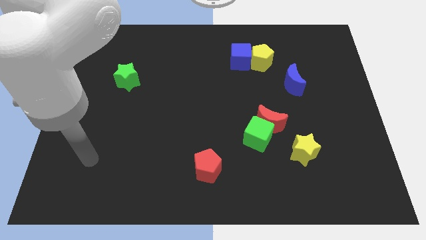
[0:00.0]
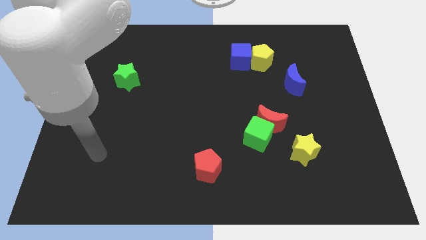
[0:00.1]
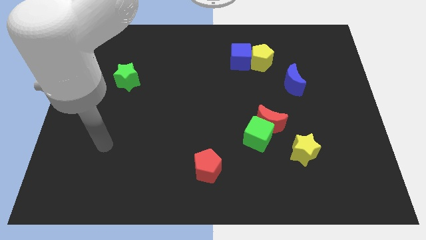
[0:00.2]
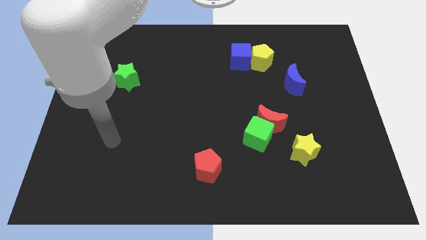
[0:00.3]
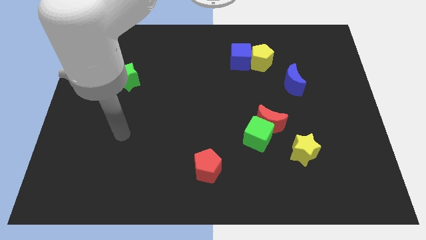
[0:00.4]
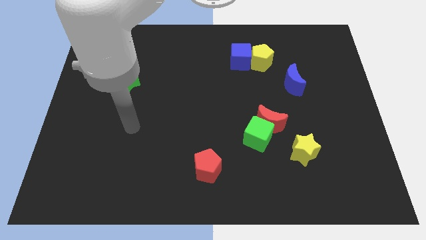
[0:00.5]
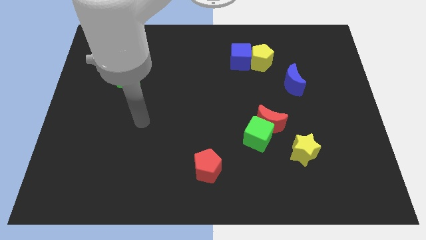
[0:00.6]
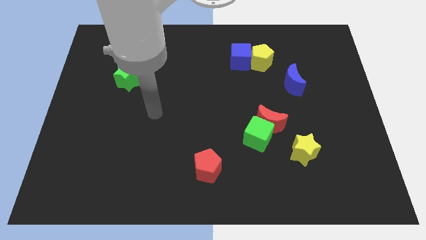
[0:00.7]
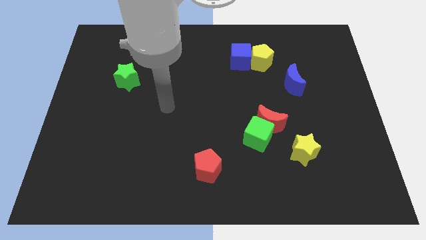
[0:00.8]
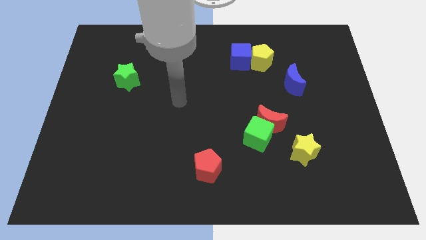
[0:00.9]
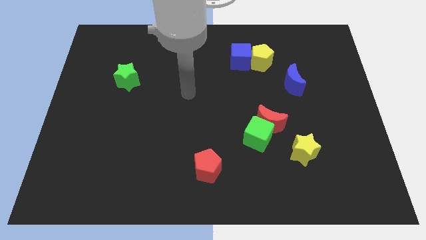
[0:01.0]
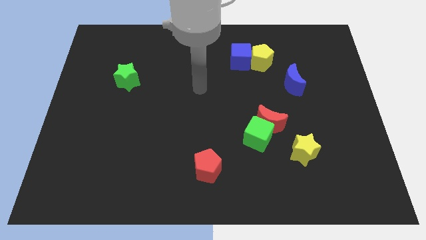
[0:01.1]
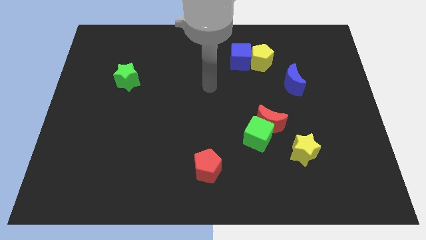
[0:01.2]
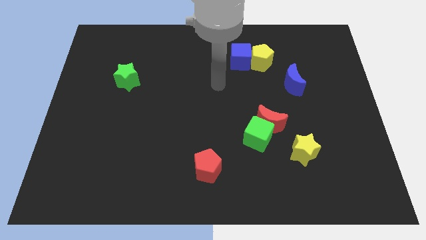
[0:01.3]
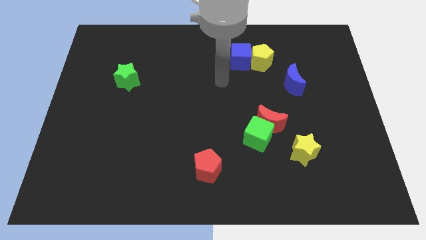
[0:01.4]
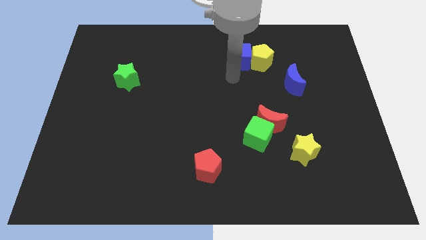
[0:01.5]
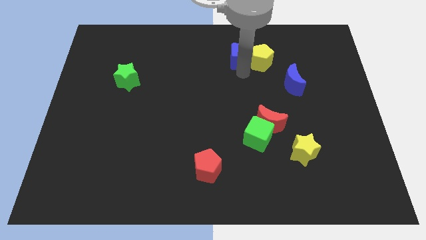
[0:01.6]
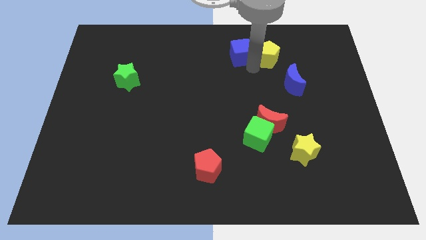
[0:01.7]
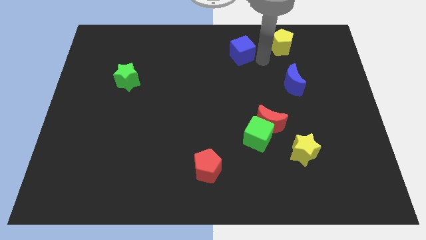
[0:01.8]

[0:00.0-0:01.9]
pull the blue cube apart from the yellow pentagon

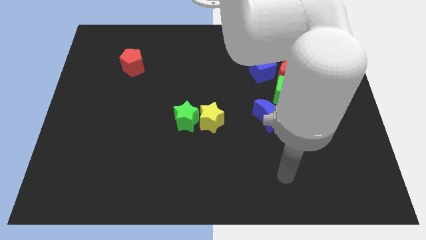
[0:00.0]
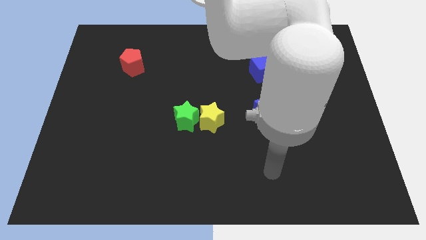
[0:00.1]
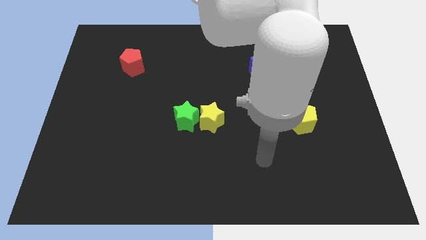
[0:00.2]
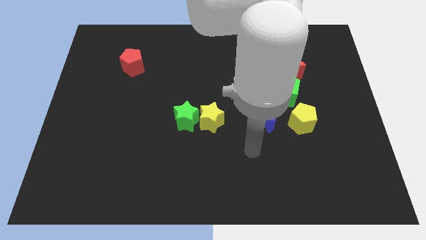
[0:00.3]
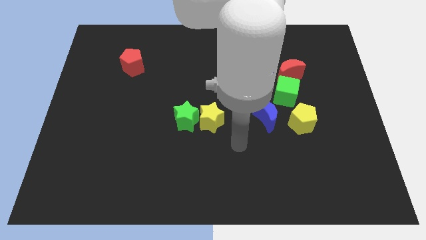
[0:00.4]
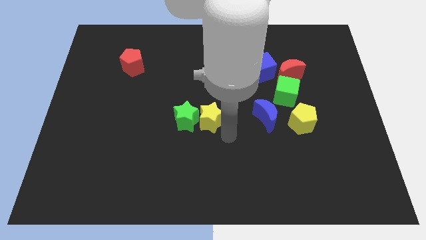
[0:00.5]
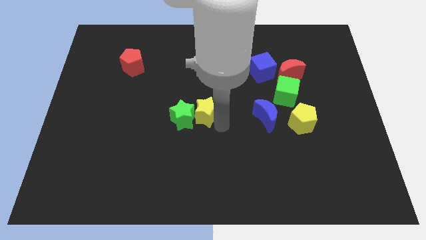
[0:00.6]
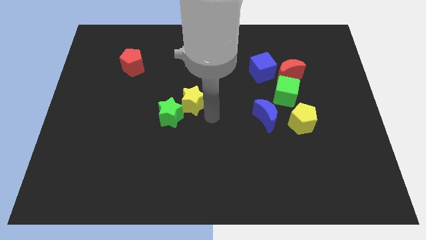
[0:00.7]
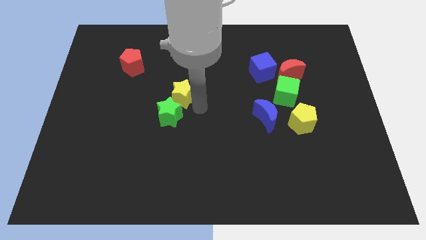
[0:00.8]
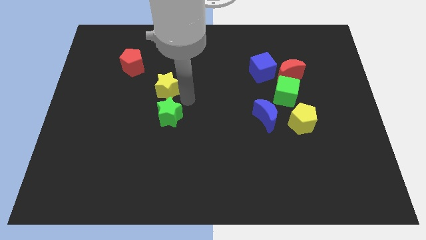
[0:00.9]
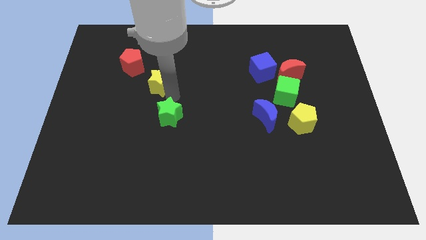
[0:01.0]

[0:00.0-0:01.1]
pull the green star apart from the yellow star

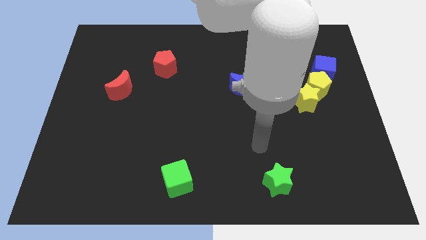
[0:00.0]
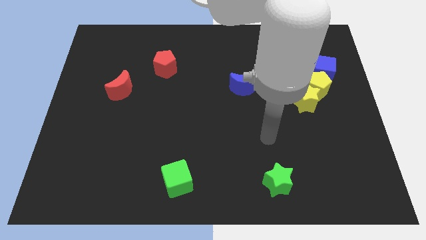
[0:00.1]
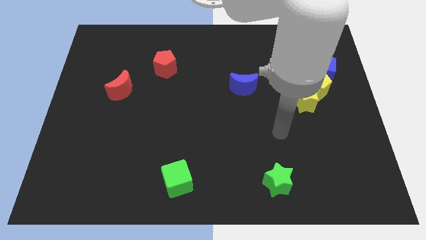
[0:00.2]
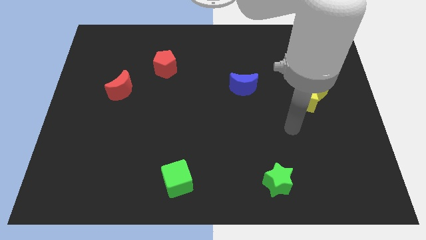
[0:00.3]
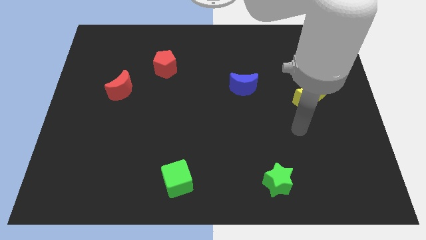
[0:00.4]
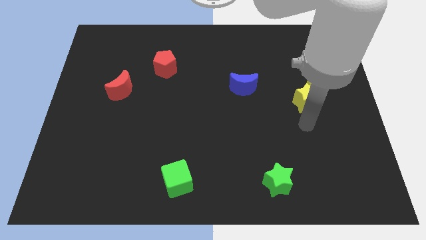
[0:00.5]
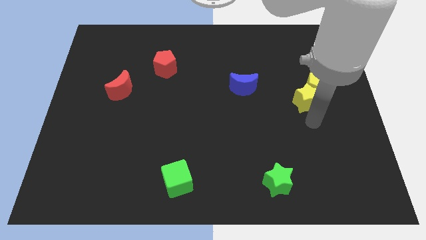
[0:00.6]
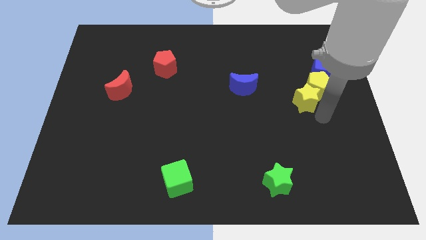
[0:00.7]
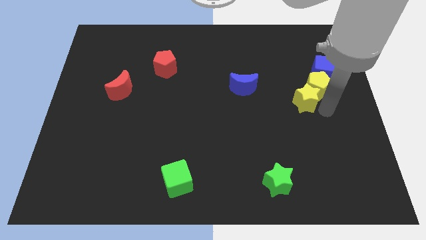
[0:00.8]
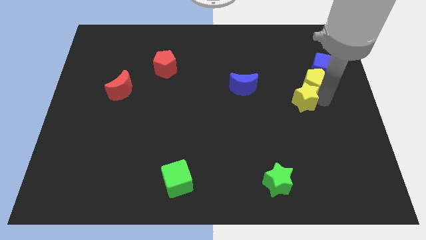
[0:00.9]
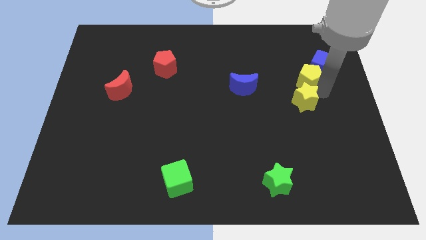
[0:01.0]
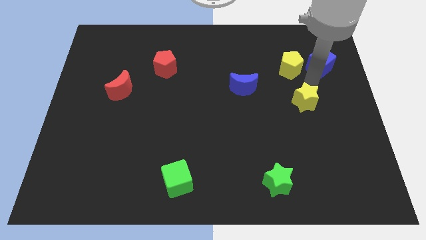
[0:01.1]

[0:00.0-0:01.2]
pull the yellow star apart from the yellow pentagon

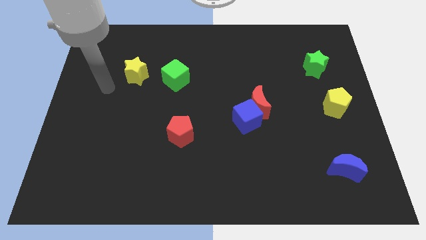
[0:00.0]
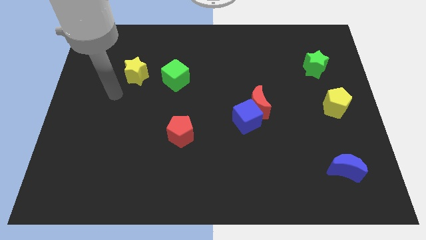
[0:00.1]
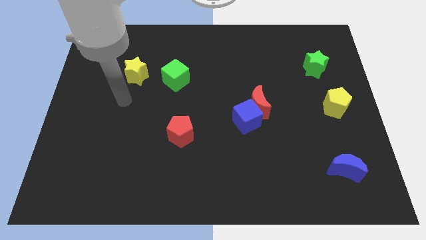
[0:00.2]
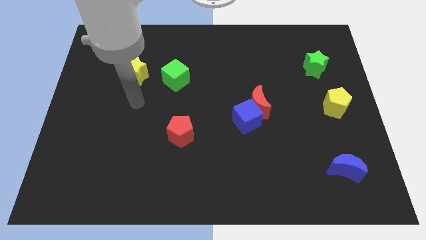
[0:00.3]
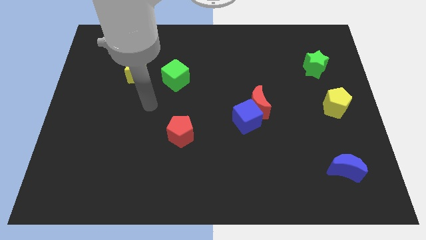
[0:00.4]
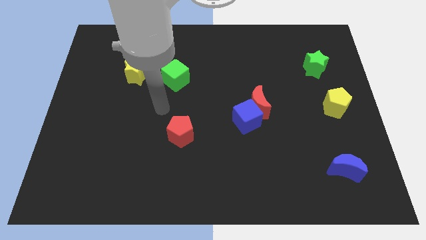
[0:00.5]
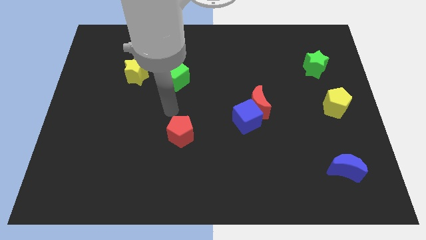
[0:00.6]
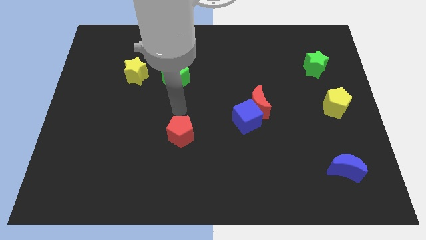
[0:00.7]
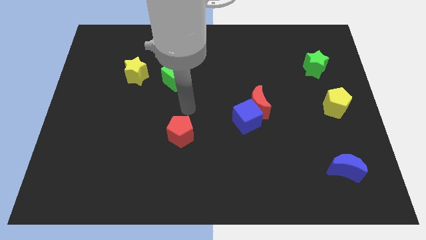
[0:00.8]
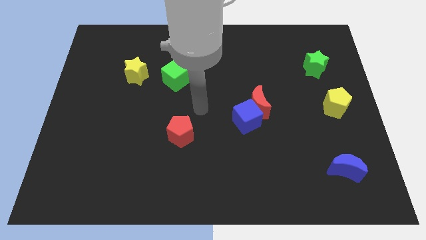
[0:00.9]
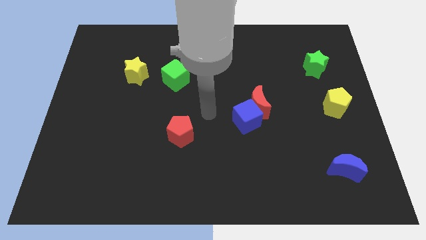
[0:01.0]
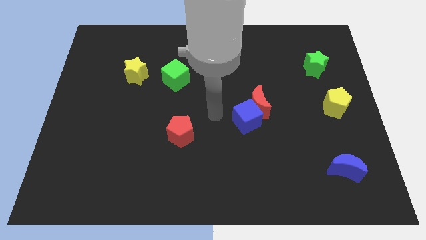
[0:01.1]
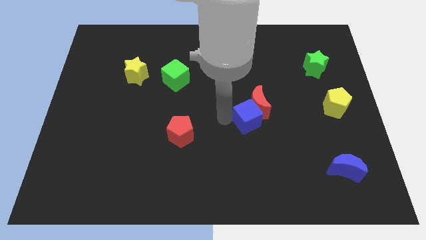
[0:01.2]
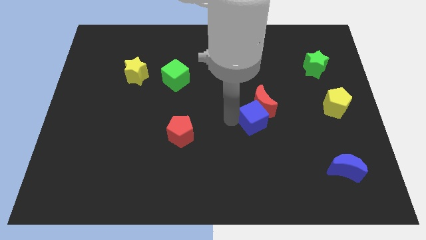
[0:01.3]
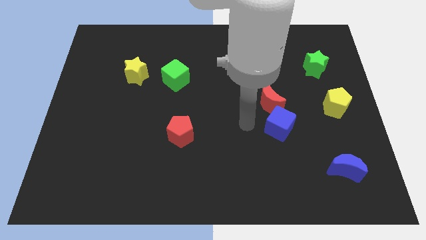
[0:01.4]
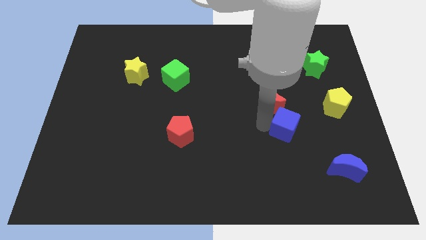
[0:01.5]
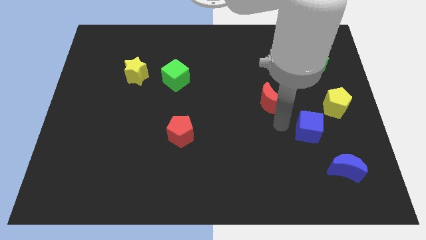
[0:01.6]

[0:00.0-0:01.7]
pull the red moon apart from the blue cube

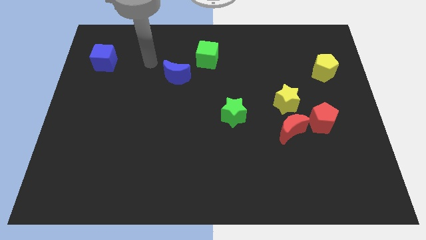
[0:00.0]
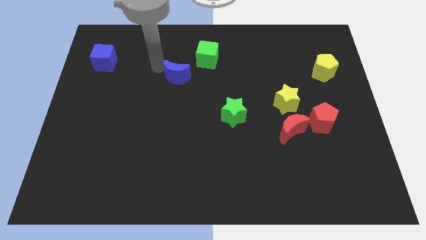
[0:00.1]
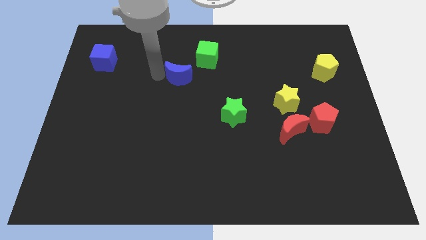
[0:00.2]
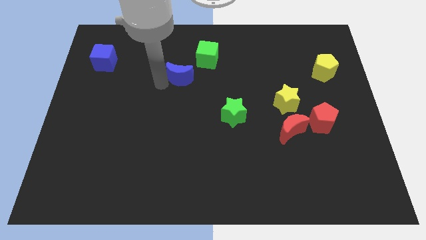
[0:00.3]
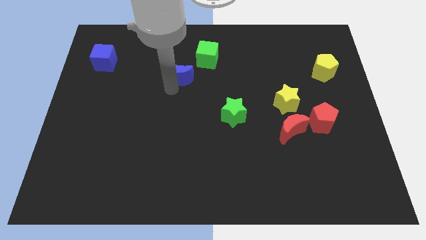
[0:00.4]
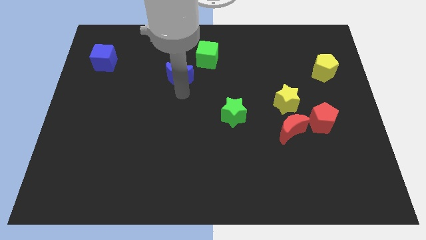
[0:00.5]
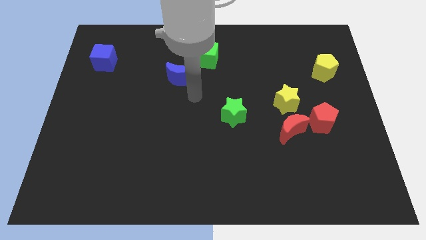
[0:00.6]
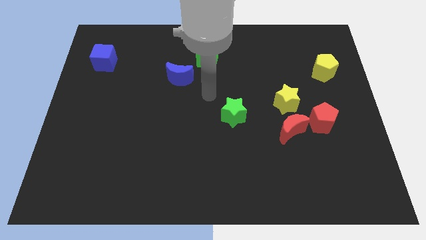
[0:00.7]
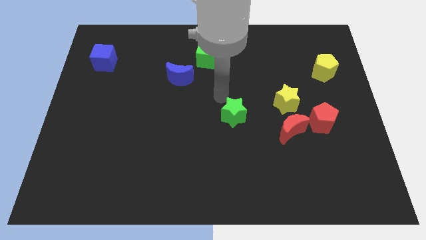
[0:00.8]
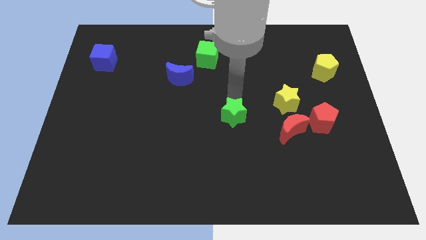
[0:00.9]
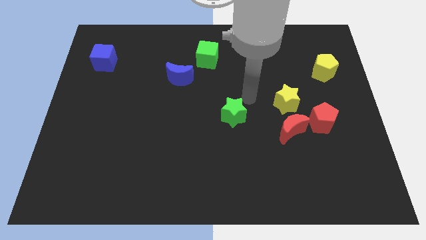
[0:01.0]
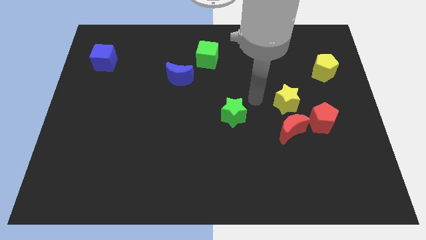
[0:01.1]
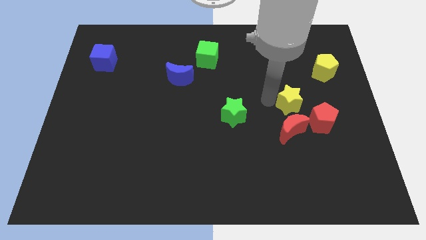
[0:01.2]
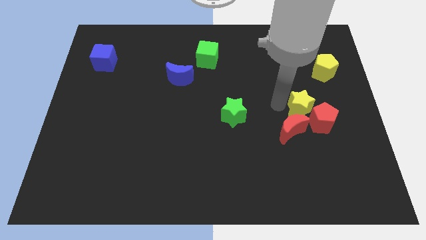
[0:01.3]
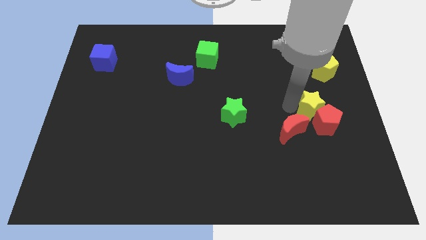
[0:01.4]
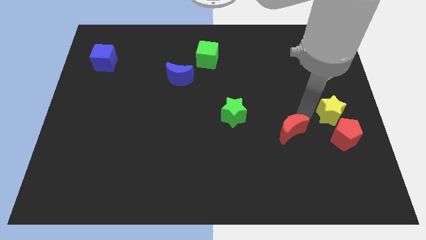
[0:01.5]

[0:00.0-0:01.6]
separate the red moon from the red pentagon and yellow star

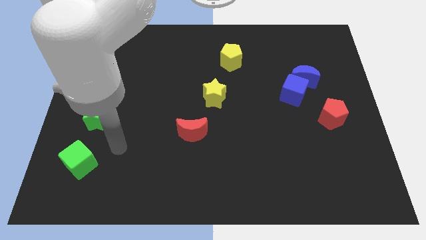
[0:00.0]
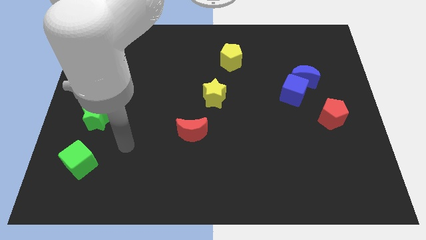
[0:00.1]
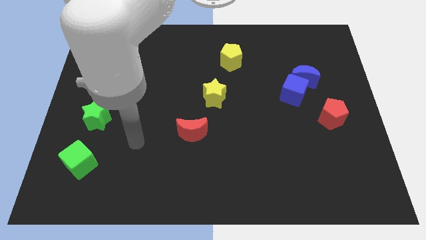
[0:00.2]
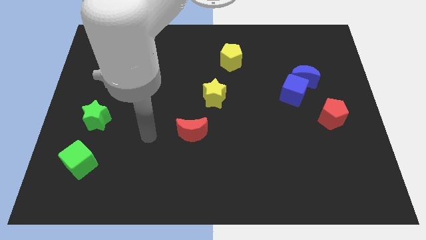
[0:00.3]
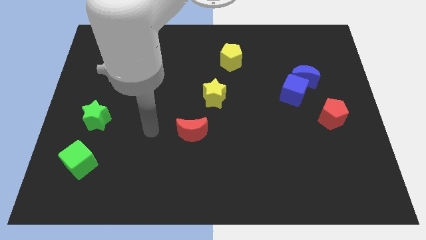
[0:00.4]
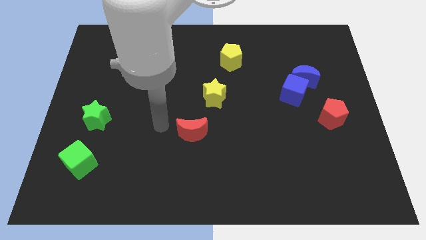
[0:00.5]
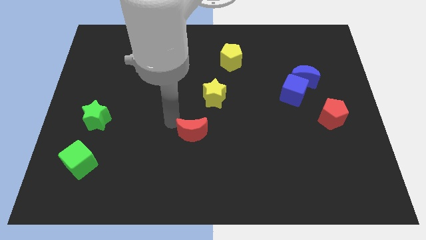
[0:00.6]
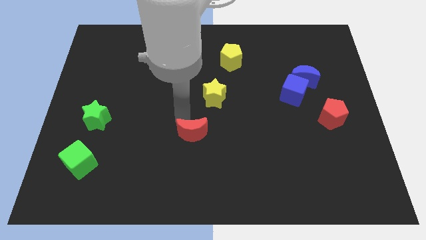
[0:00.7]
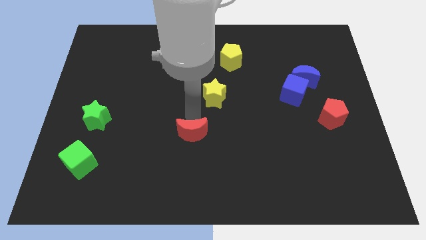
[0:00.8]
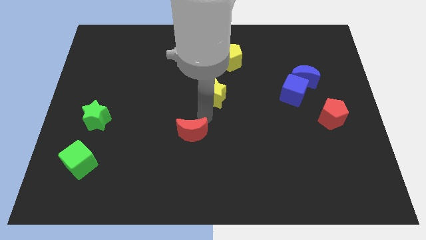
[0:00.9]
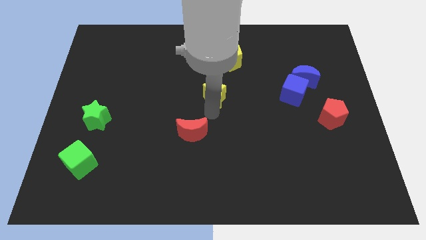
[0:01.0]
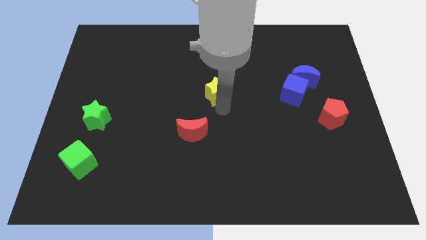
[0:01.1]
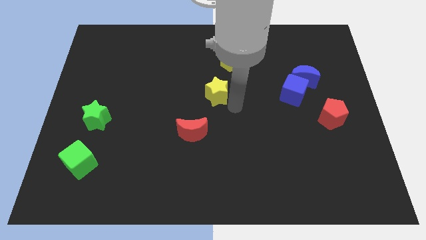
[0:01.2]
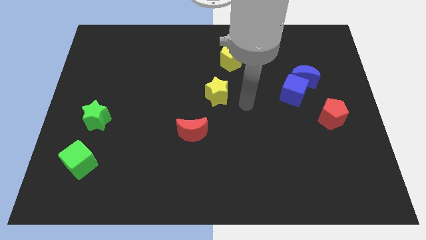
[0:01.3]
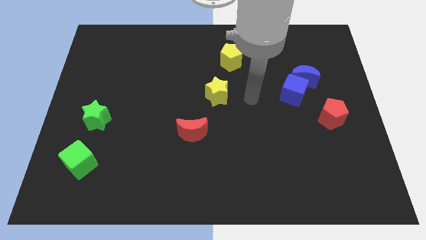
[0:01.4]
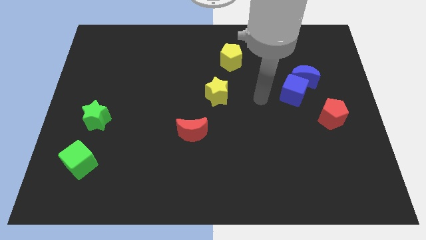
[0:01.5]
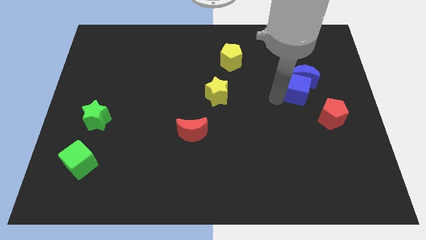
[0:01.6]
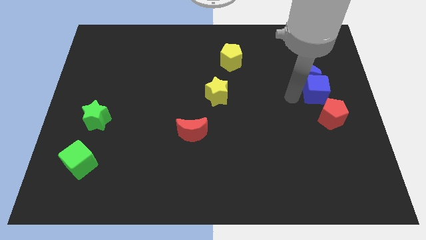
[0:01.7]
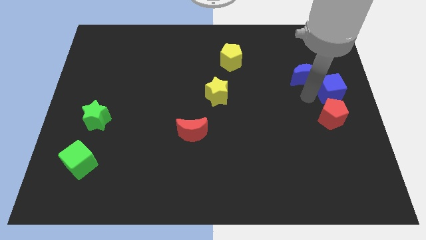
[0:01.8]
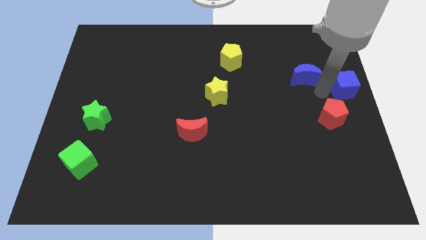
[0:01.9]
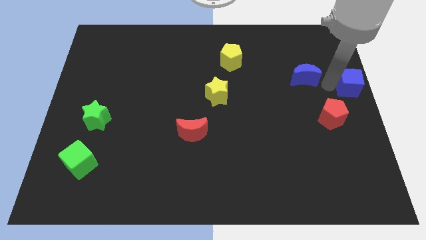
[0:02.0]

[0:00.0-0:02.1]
pull the blue moon apart from the blue cube
